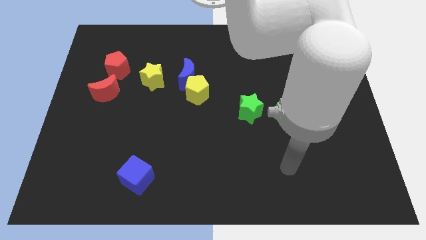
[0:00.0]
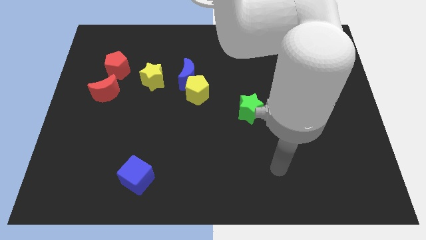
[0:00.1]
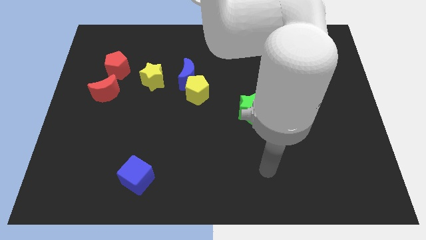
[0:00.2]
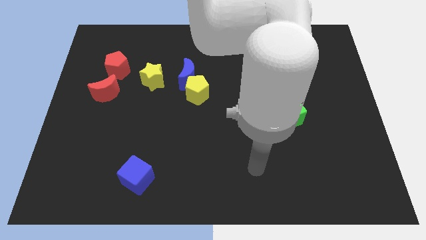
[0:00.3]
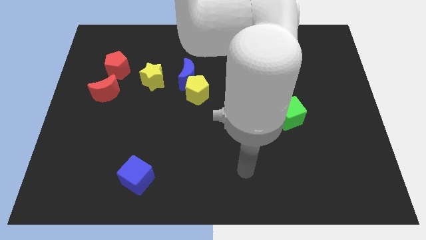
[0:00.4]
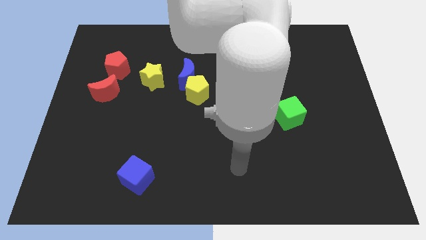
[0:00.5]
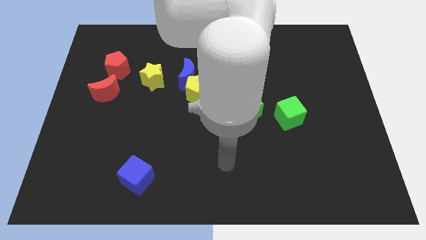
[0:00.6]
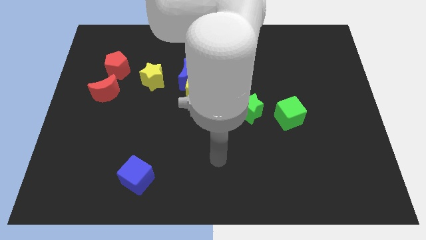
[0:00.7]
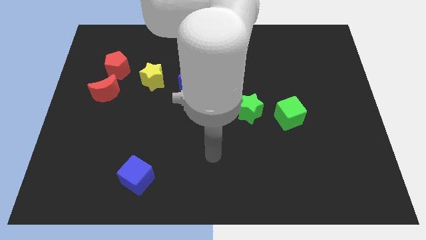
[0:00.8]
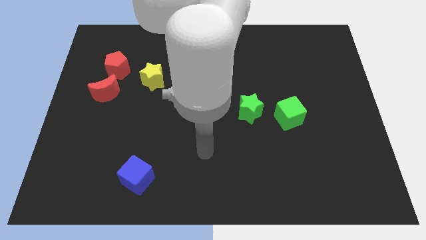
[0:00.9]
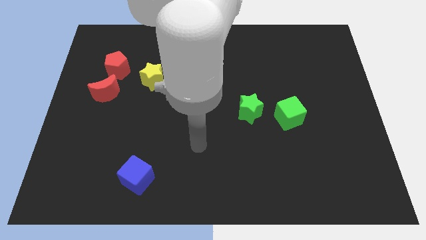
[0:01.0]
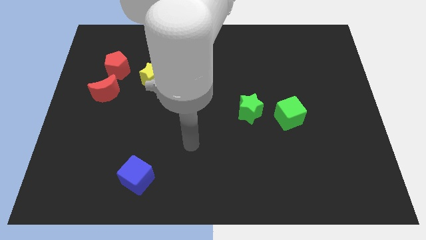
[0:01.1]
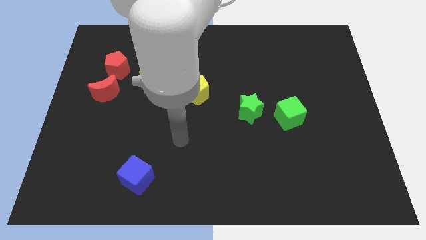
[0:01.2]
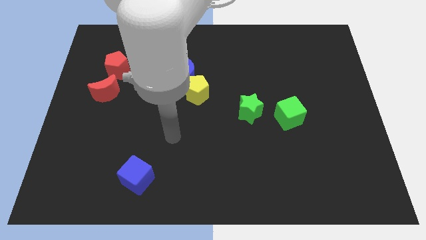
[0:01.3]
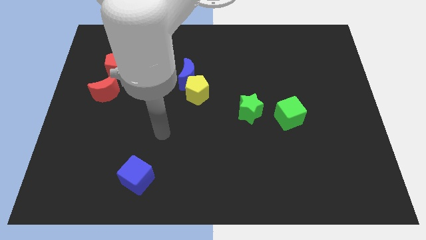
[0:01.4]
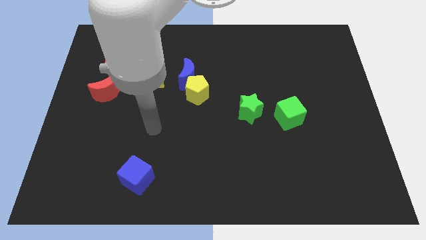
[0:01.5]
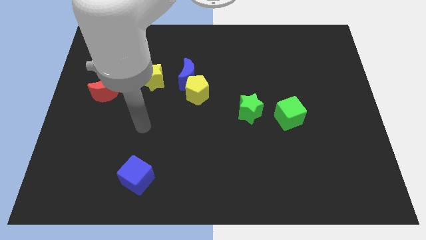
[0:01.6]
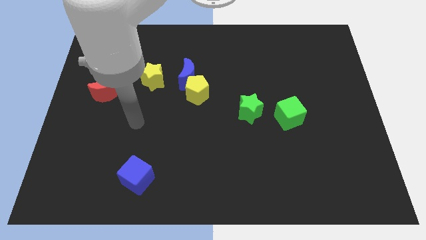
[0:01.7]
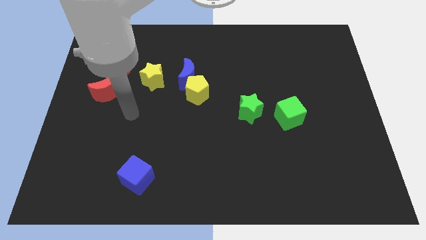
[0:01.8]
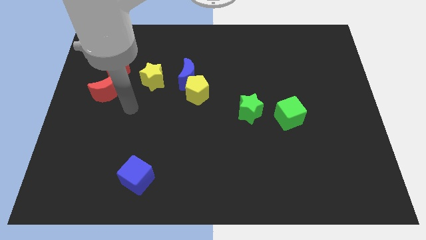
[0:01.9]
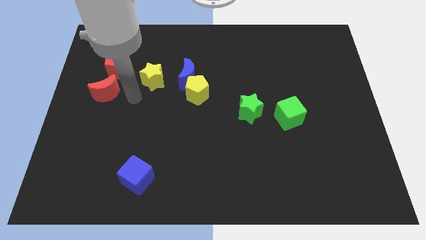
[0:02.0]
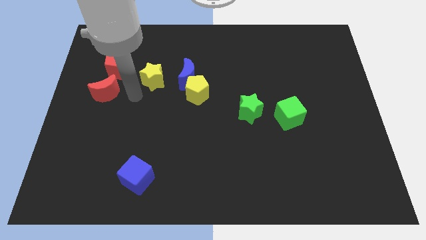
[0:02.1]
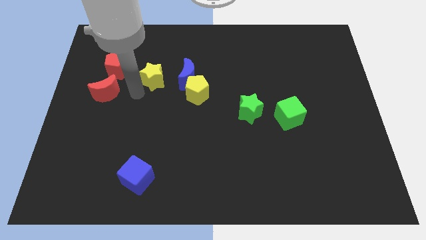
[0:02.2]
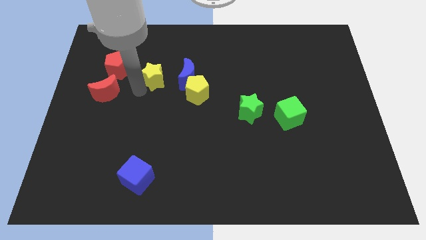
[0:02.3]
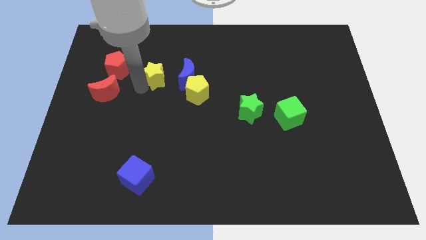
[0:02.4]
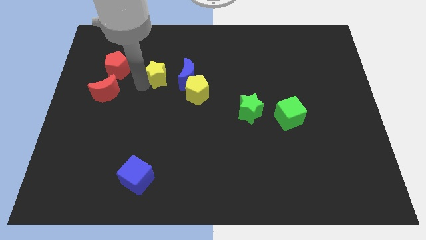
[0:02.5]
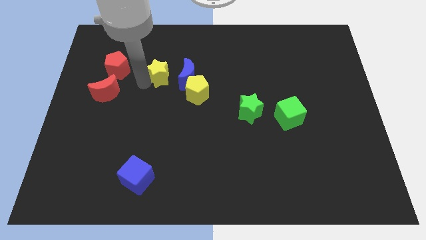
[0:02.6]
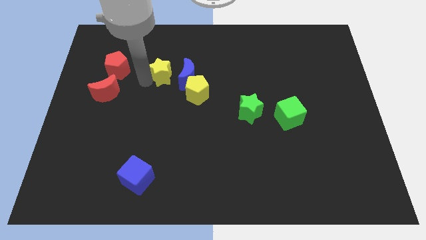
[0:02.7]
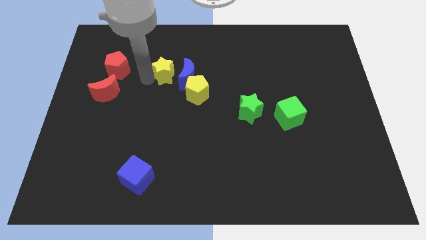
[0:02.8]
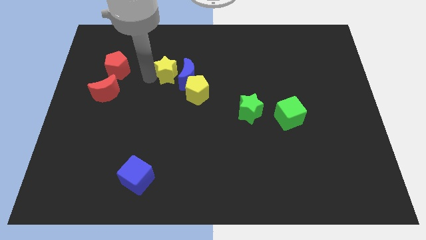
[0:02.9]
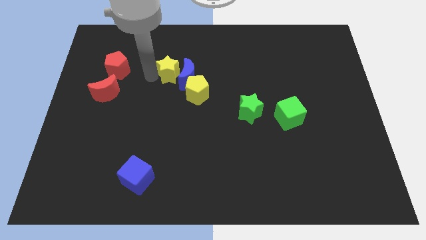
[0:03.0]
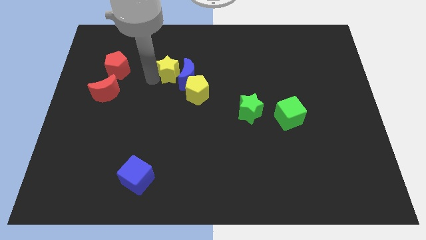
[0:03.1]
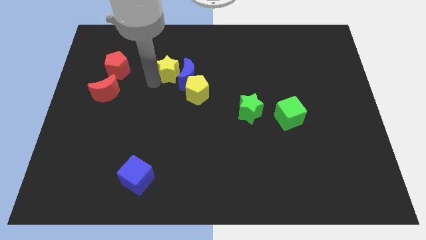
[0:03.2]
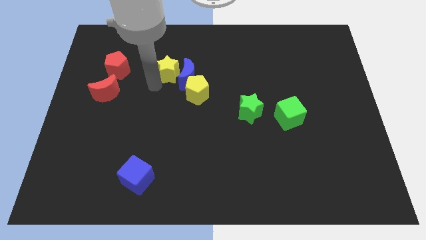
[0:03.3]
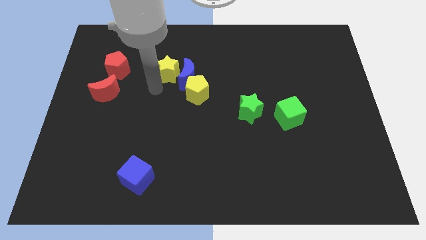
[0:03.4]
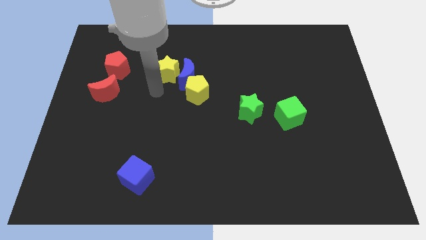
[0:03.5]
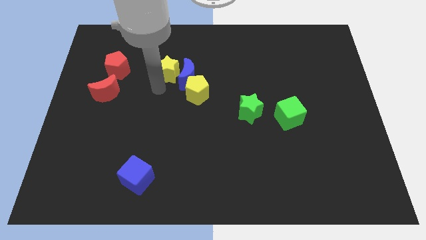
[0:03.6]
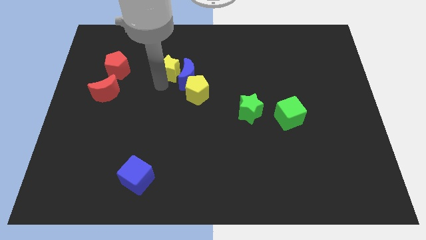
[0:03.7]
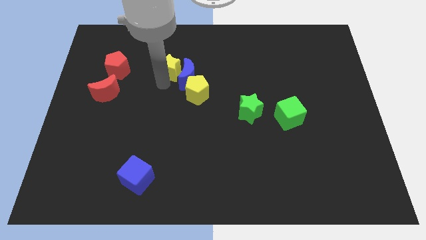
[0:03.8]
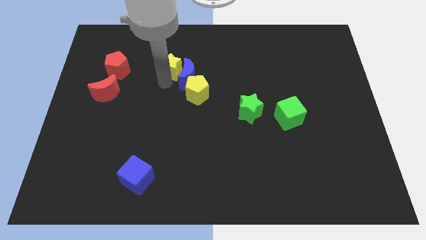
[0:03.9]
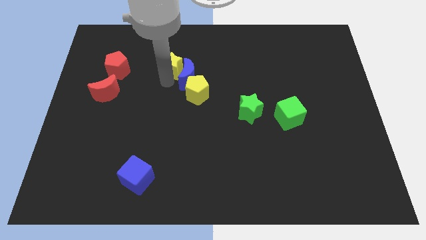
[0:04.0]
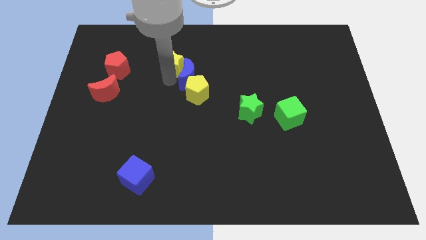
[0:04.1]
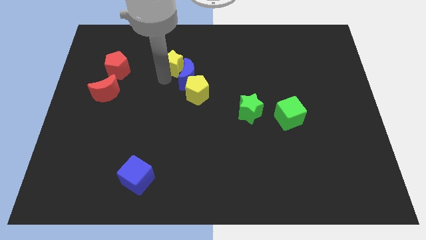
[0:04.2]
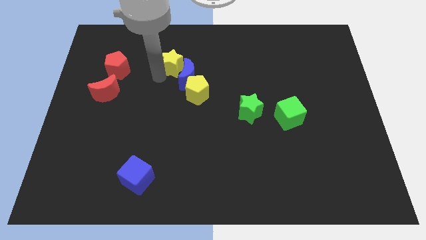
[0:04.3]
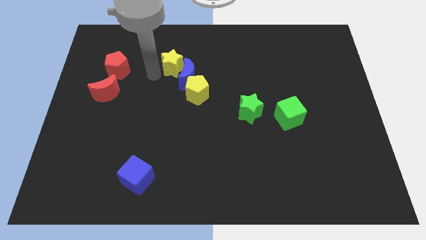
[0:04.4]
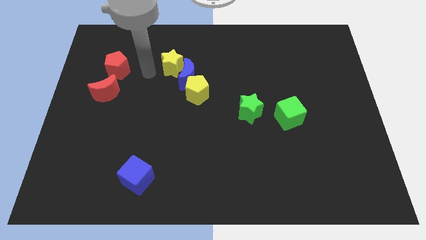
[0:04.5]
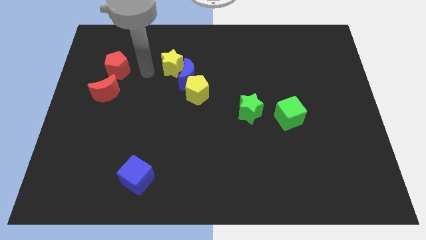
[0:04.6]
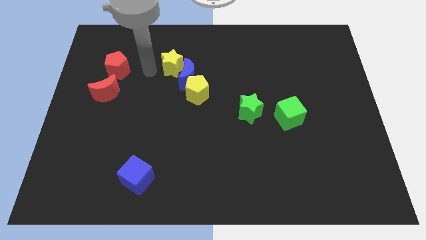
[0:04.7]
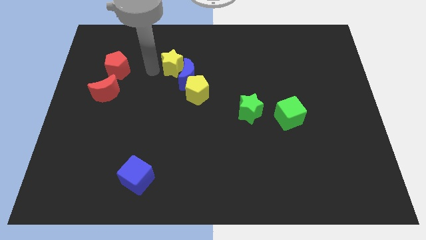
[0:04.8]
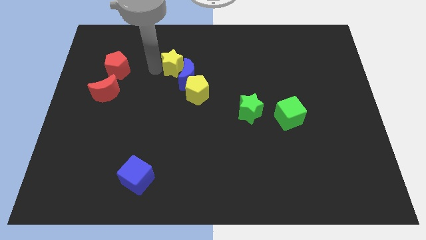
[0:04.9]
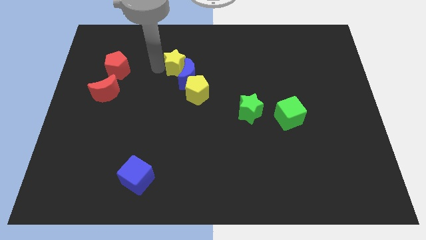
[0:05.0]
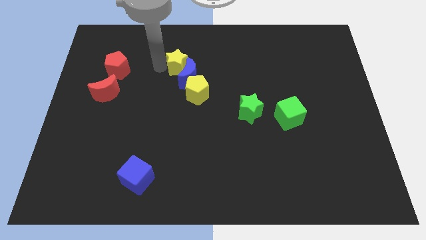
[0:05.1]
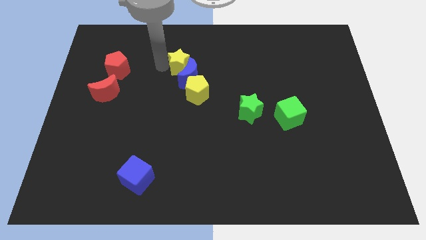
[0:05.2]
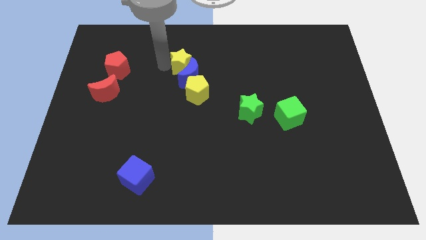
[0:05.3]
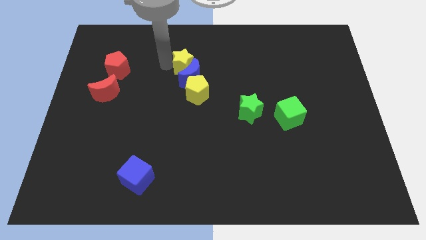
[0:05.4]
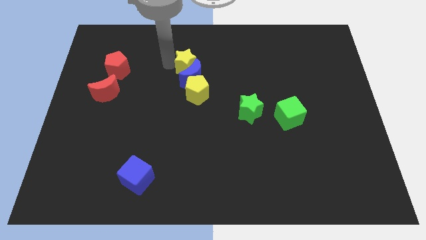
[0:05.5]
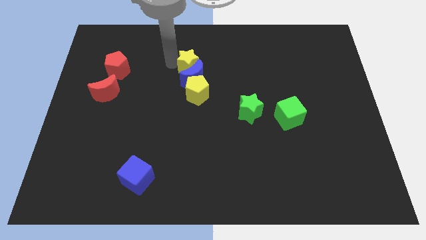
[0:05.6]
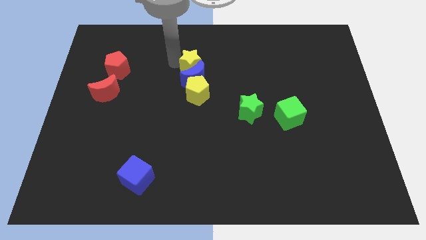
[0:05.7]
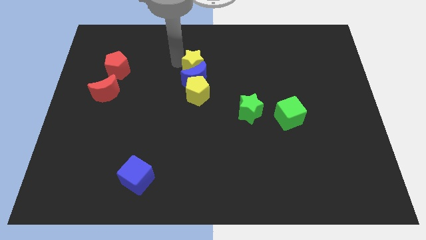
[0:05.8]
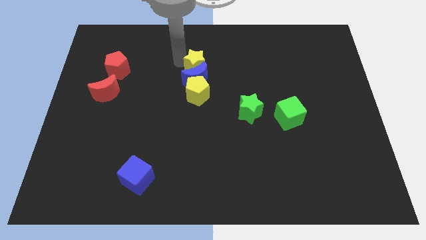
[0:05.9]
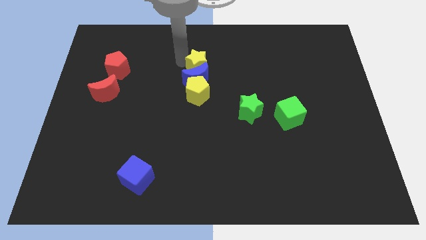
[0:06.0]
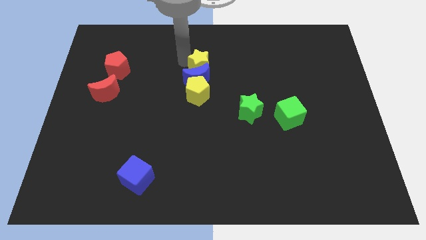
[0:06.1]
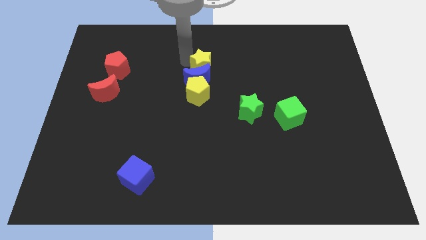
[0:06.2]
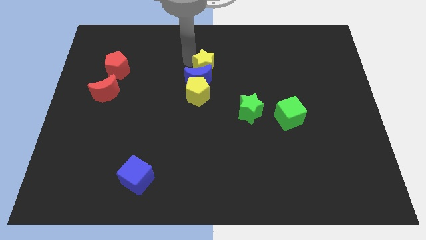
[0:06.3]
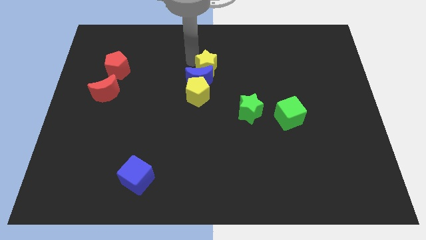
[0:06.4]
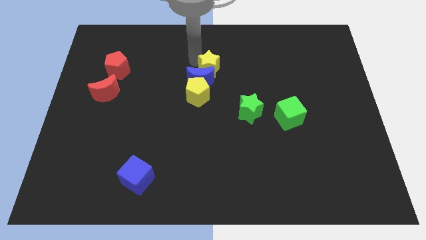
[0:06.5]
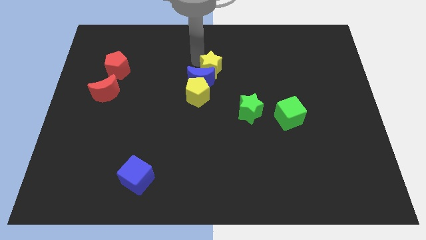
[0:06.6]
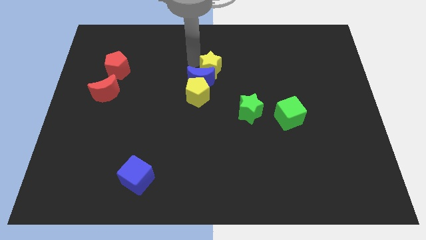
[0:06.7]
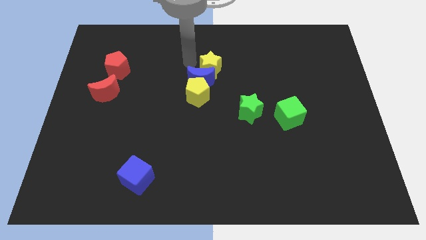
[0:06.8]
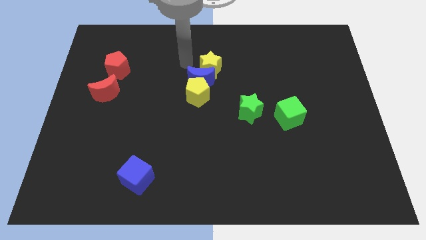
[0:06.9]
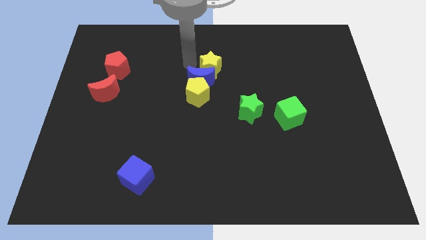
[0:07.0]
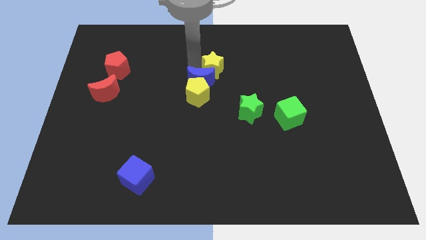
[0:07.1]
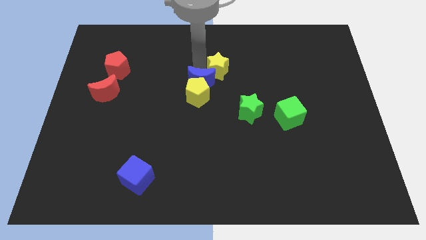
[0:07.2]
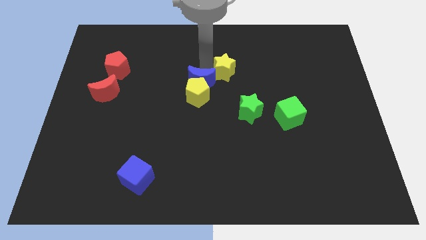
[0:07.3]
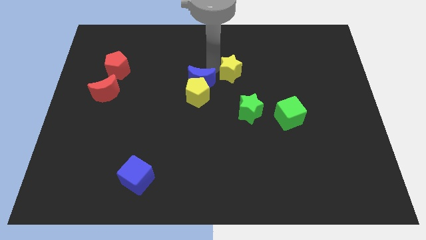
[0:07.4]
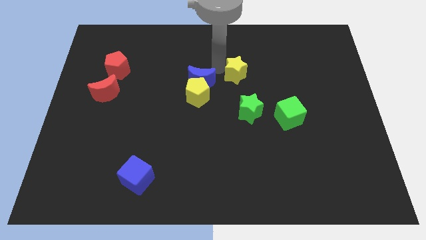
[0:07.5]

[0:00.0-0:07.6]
move the yellow star right

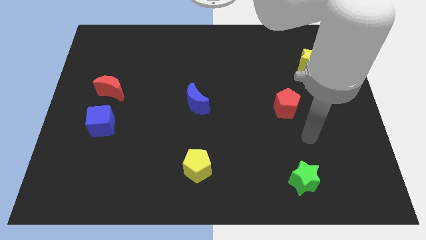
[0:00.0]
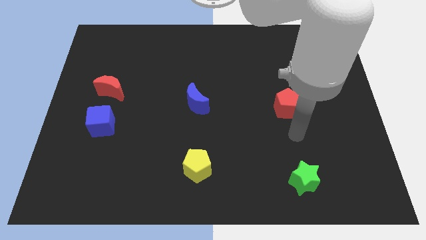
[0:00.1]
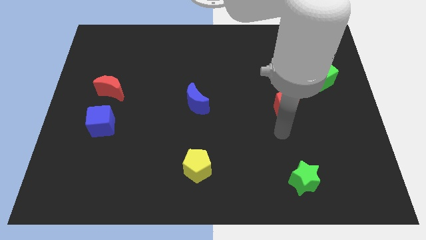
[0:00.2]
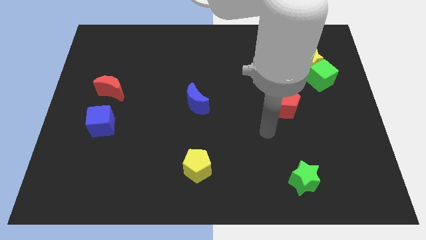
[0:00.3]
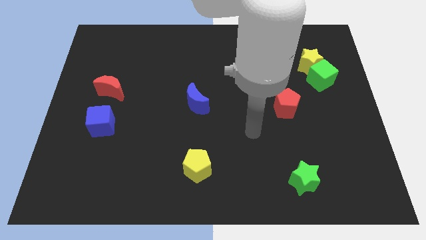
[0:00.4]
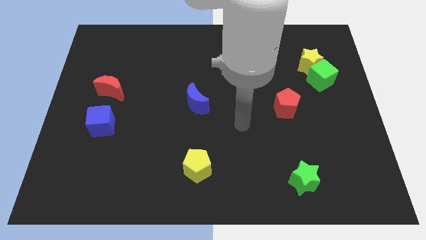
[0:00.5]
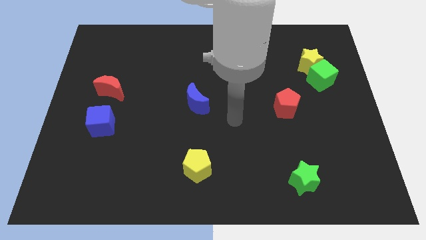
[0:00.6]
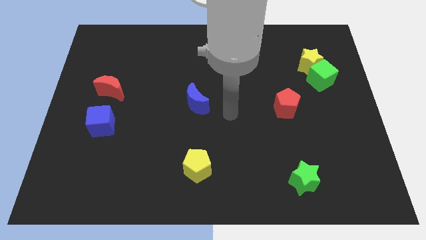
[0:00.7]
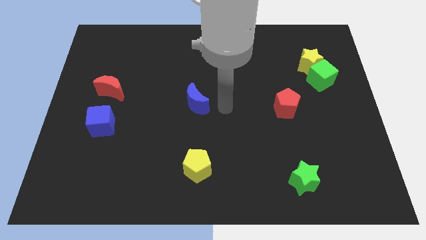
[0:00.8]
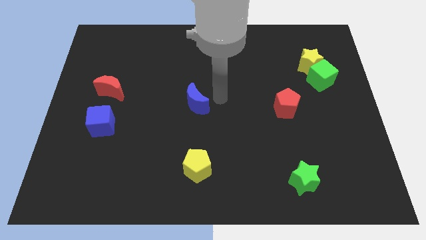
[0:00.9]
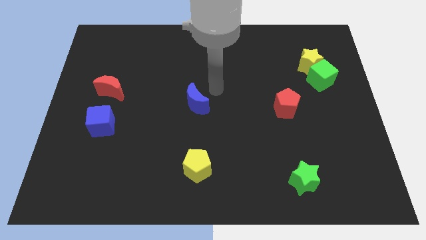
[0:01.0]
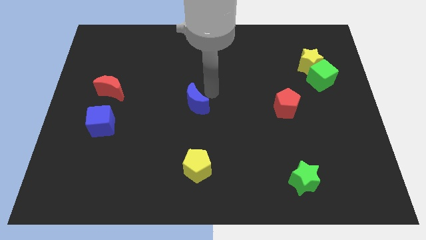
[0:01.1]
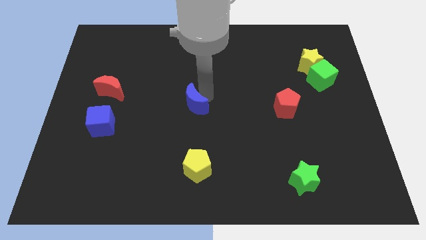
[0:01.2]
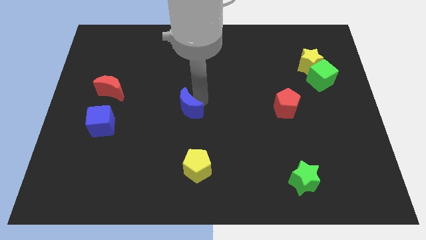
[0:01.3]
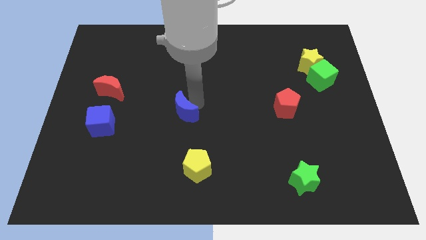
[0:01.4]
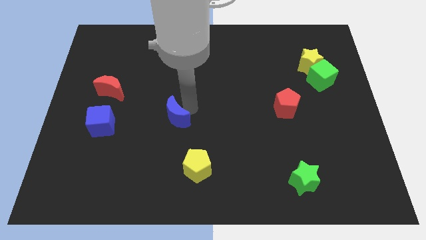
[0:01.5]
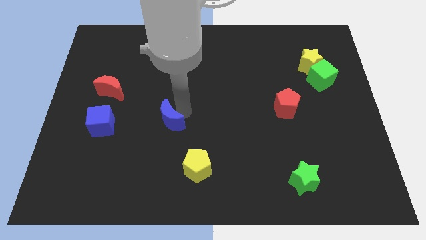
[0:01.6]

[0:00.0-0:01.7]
slightly push the blue moon down and left
